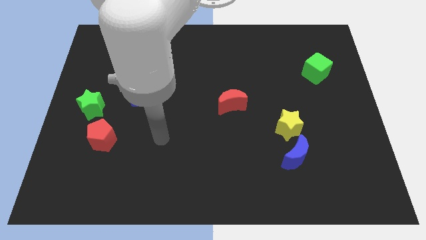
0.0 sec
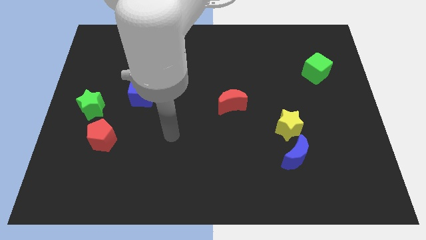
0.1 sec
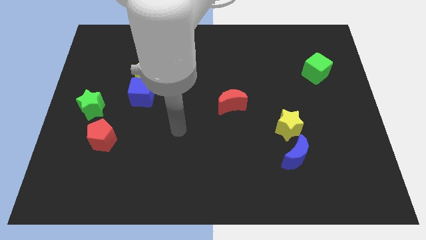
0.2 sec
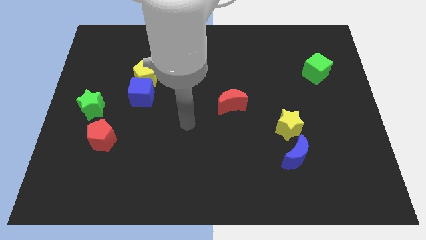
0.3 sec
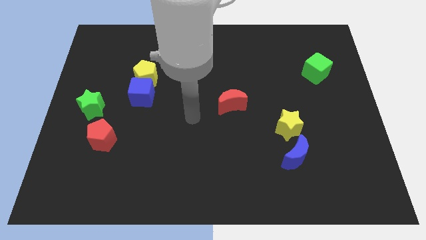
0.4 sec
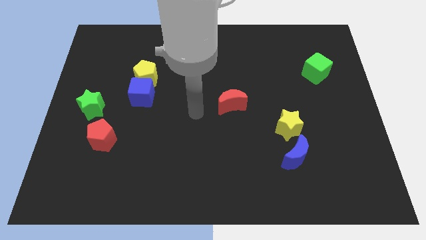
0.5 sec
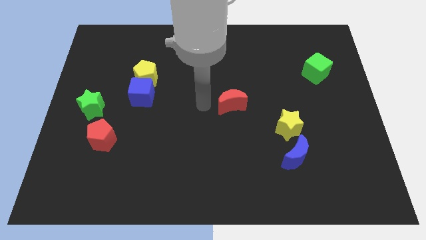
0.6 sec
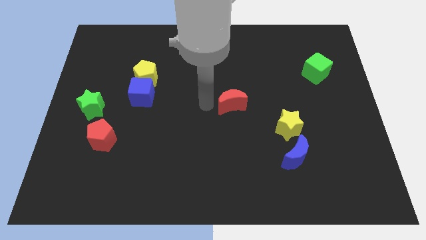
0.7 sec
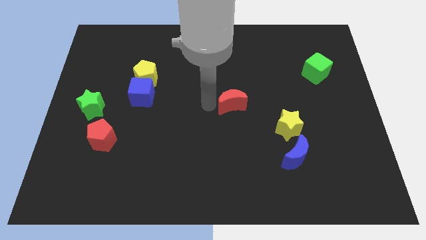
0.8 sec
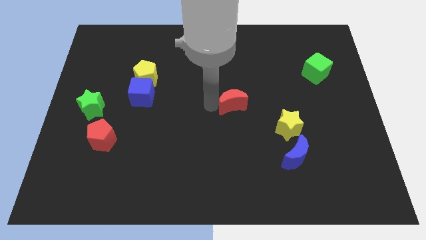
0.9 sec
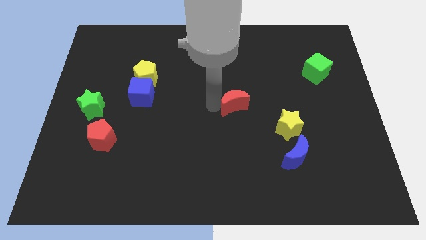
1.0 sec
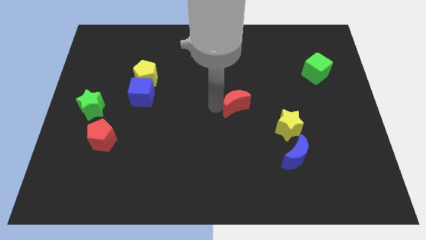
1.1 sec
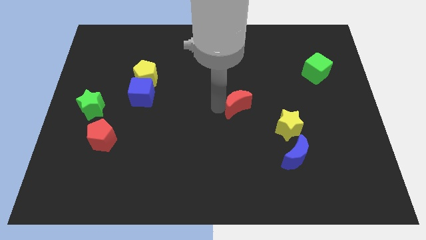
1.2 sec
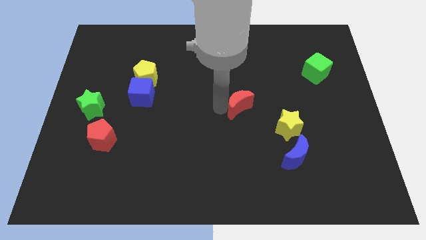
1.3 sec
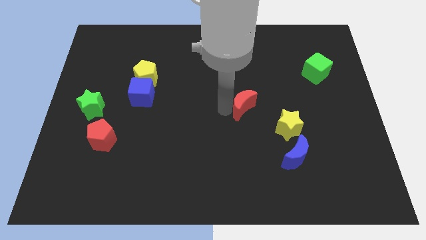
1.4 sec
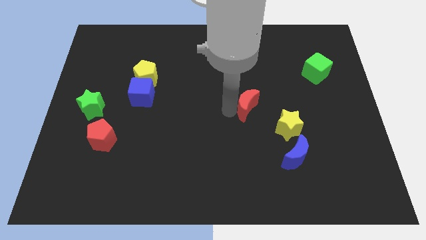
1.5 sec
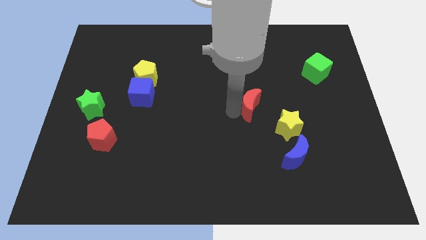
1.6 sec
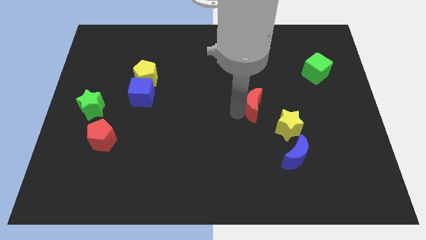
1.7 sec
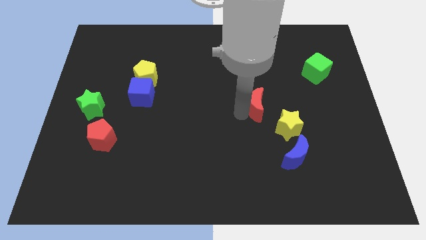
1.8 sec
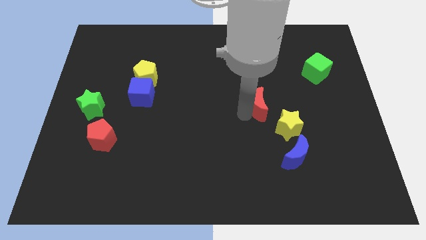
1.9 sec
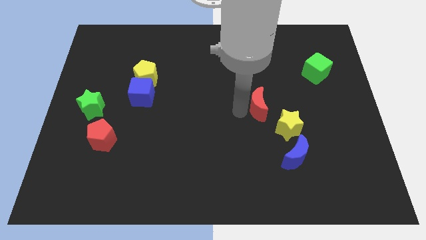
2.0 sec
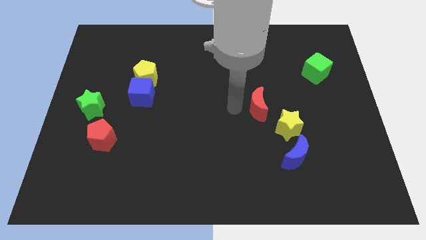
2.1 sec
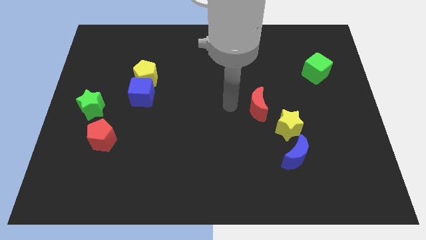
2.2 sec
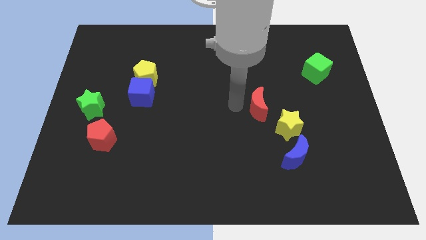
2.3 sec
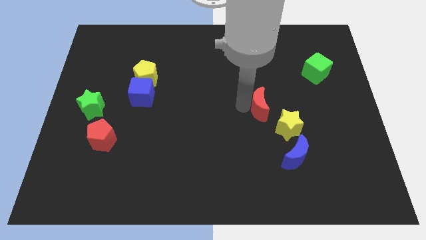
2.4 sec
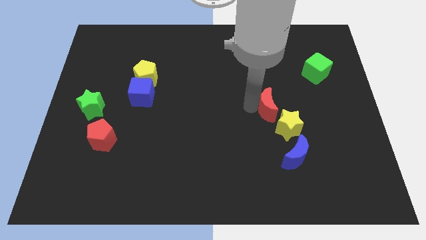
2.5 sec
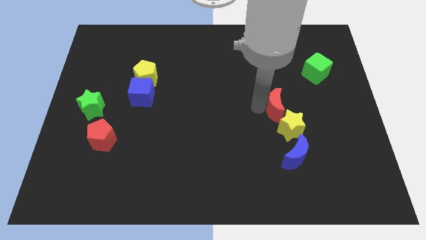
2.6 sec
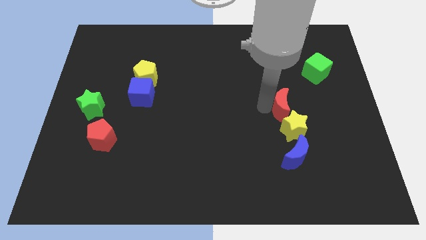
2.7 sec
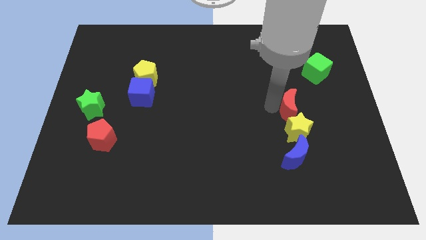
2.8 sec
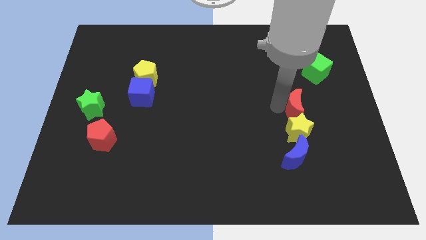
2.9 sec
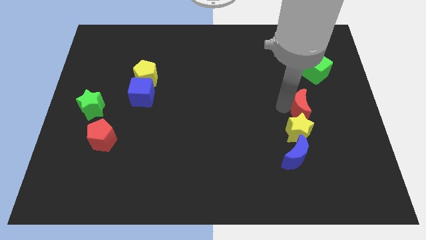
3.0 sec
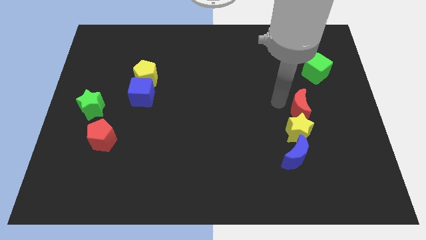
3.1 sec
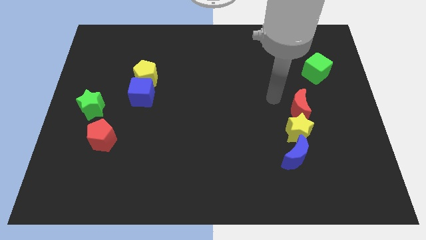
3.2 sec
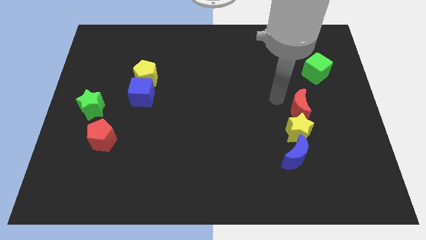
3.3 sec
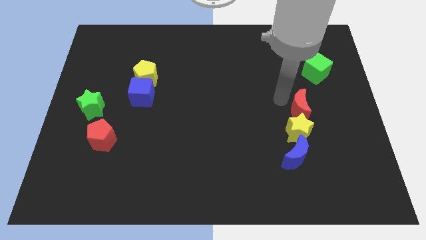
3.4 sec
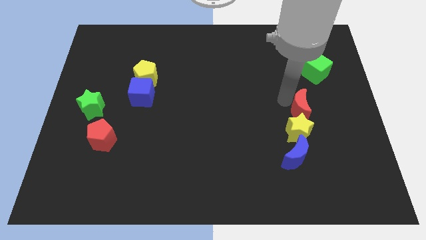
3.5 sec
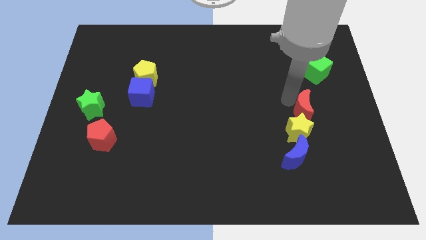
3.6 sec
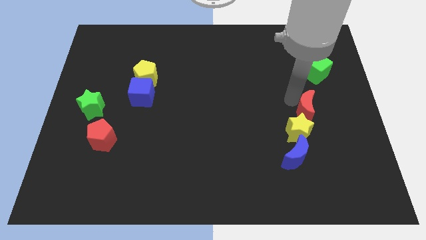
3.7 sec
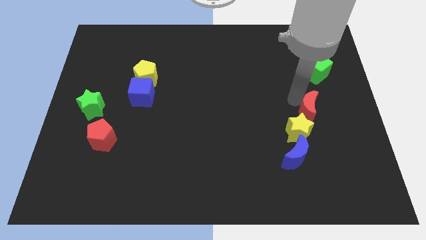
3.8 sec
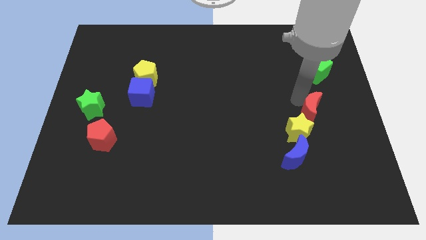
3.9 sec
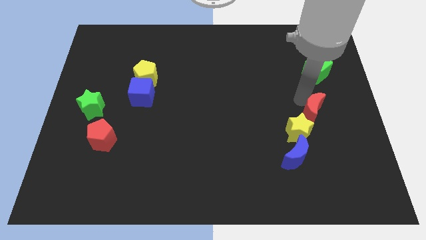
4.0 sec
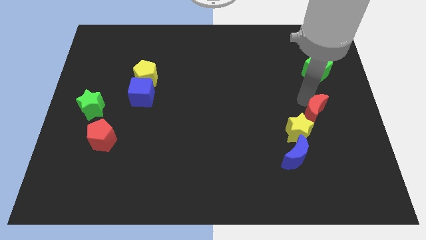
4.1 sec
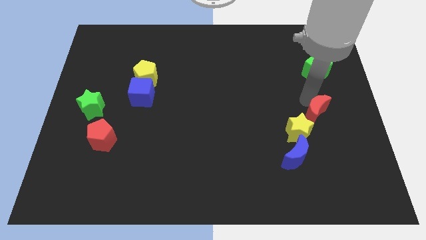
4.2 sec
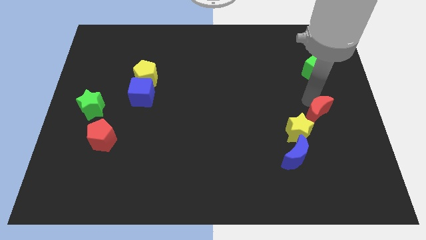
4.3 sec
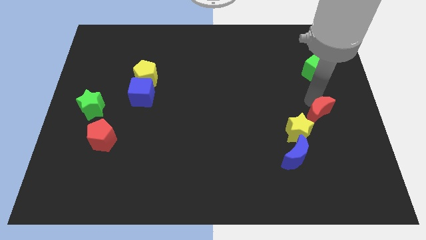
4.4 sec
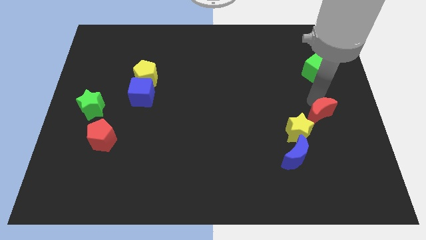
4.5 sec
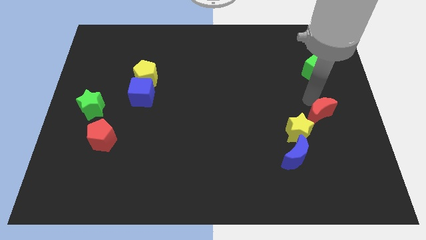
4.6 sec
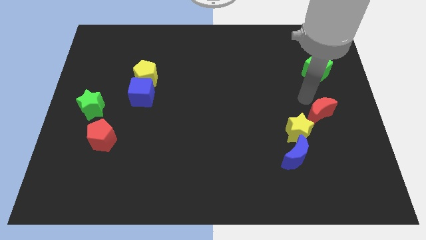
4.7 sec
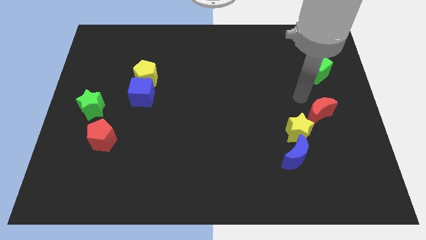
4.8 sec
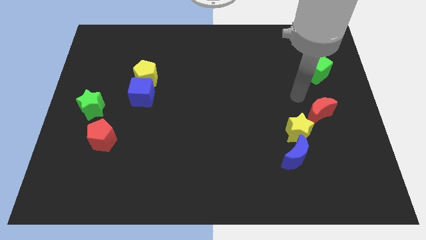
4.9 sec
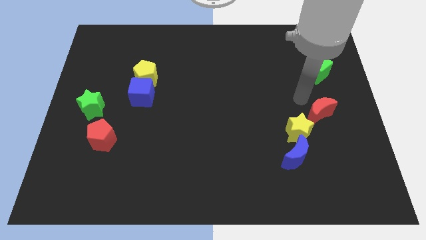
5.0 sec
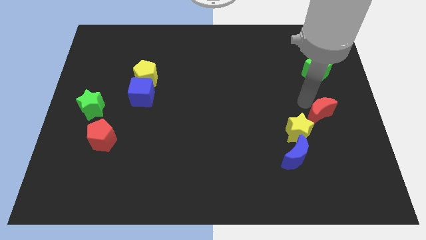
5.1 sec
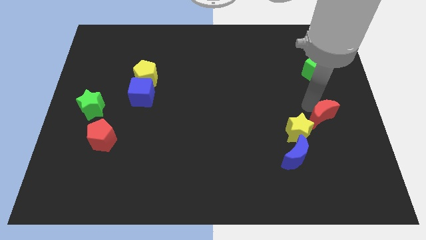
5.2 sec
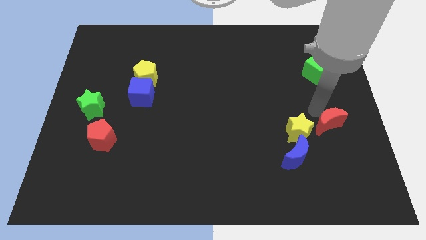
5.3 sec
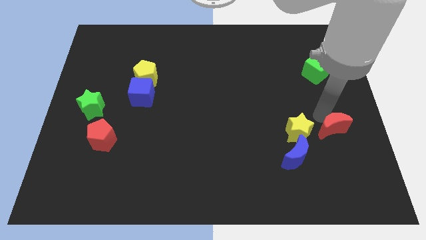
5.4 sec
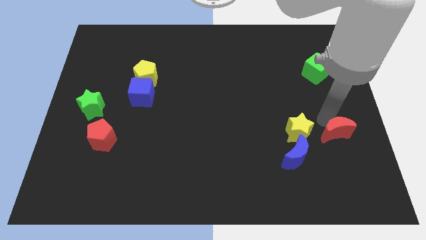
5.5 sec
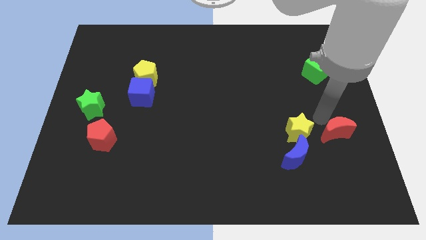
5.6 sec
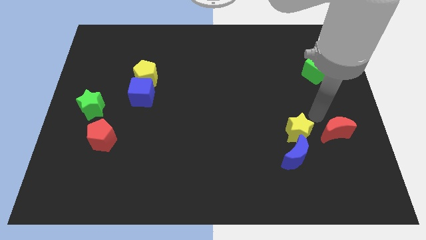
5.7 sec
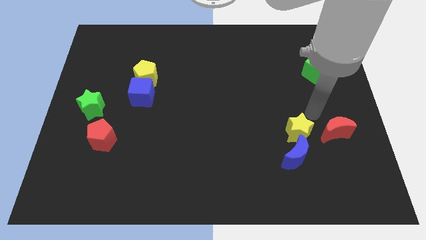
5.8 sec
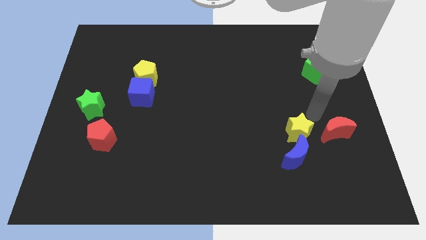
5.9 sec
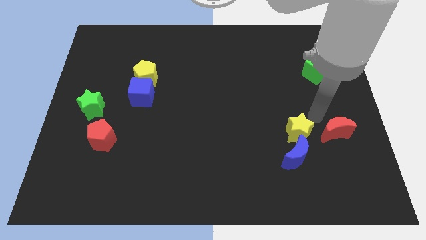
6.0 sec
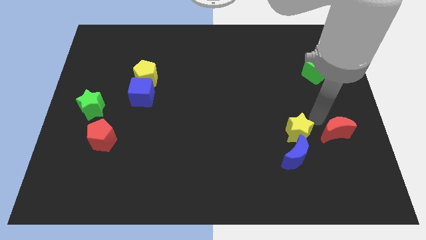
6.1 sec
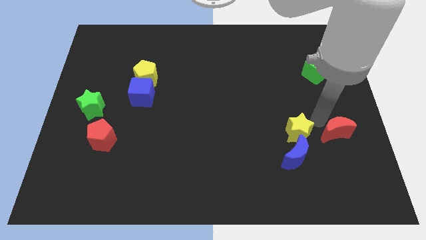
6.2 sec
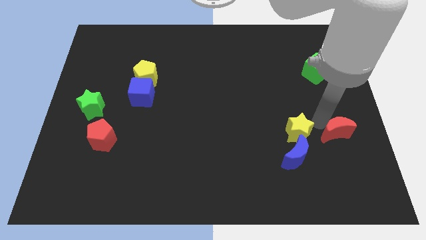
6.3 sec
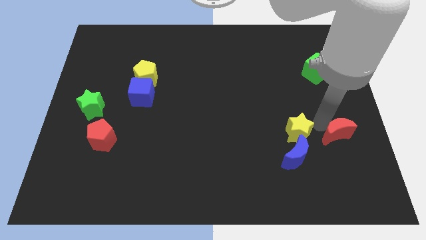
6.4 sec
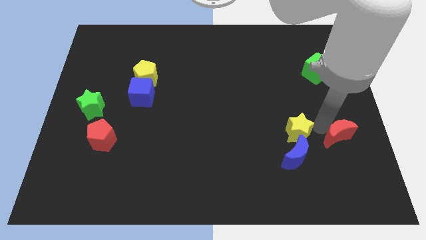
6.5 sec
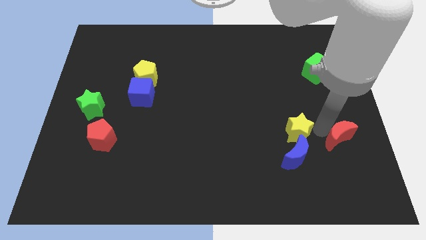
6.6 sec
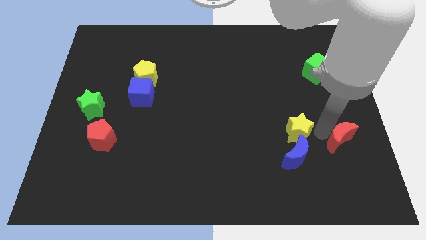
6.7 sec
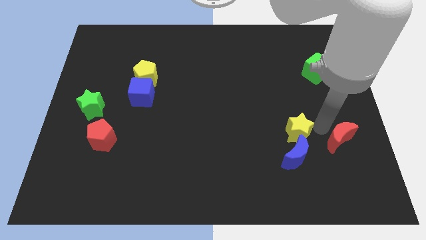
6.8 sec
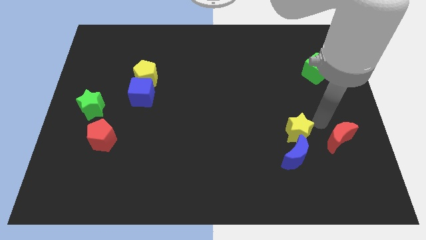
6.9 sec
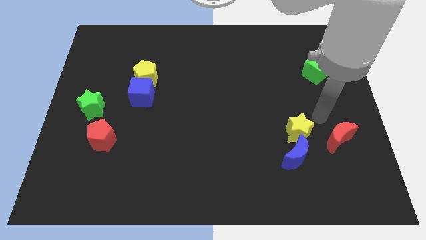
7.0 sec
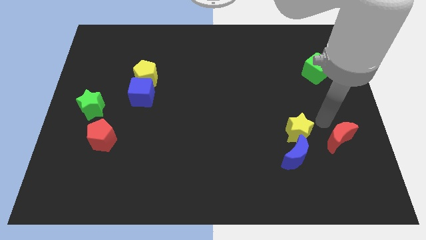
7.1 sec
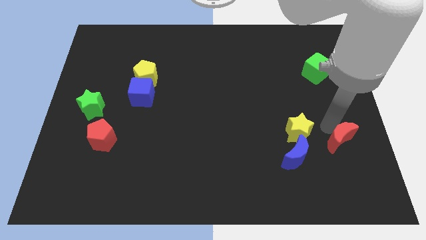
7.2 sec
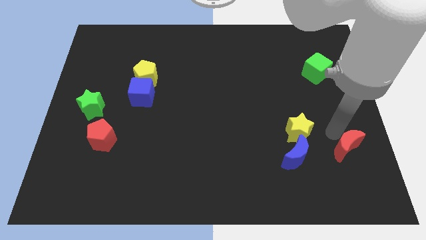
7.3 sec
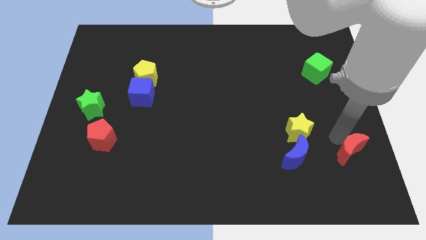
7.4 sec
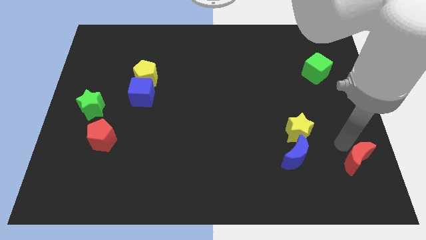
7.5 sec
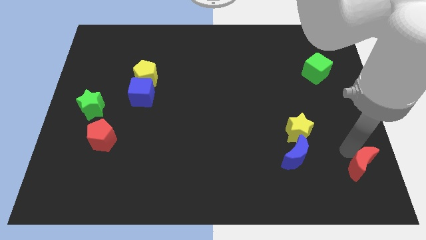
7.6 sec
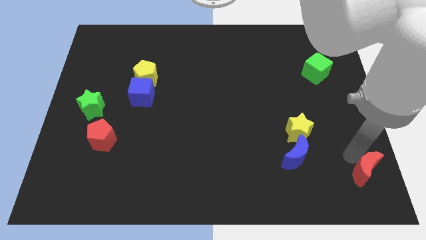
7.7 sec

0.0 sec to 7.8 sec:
slide the red moon to the lower right corner
